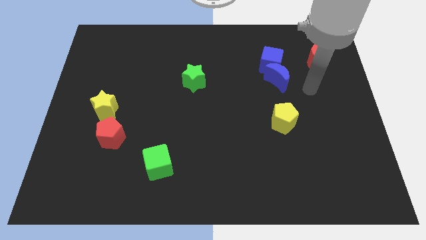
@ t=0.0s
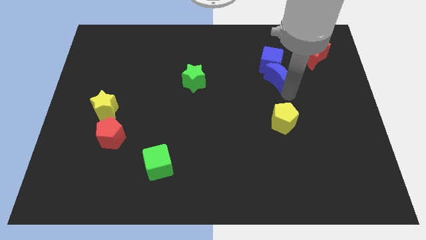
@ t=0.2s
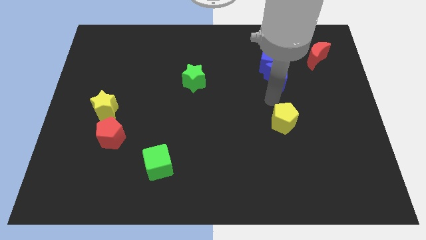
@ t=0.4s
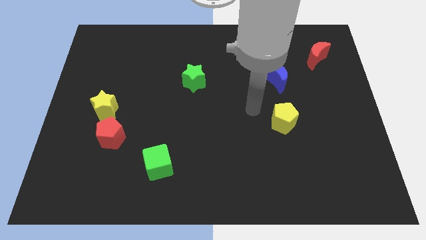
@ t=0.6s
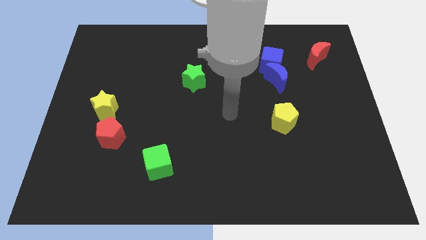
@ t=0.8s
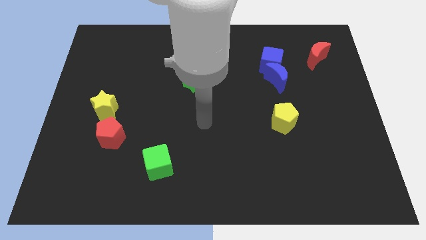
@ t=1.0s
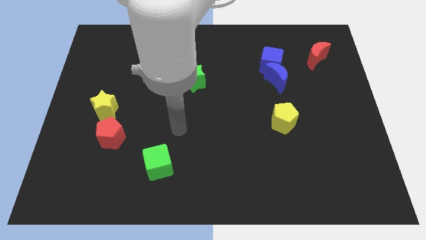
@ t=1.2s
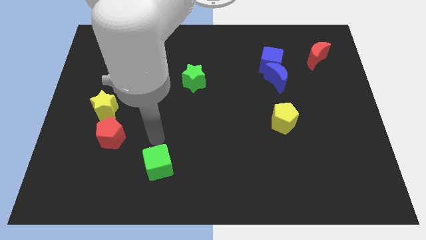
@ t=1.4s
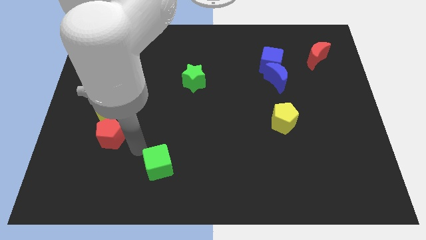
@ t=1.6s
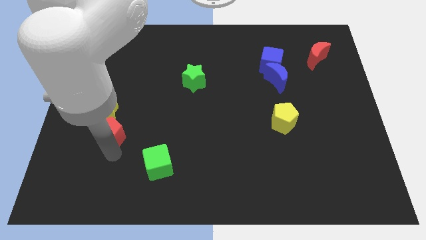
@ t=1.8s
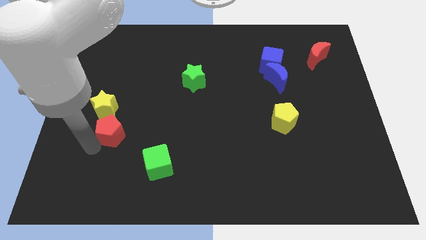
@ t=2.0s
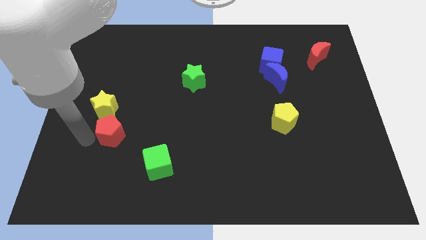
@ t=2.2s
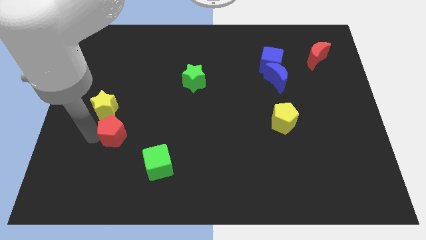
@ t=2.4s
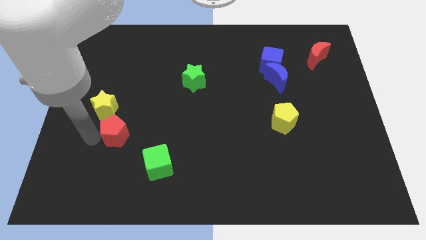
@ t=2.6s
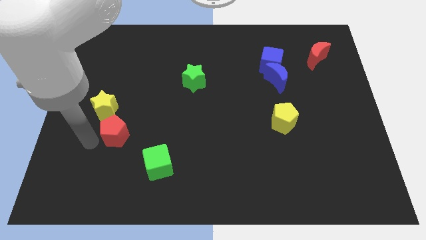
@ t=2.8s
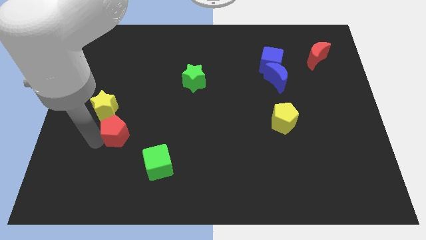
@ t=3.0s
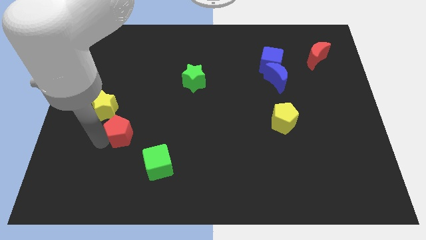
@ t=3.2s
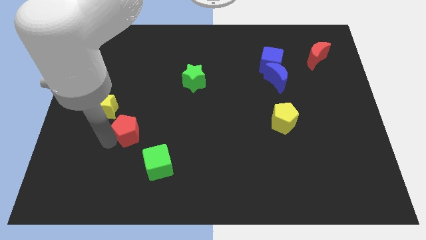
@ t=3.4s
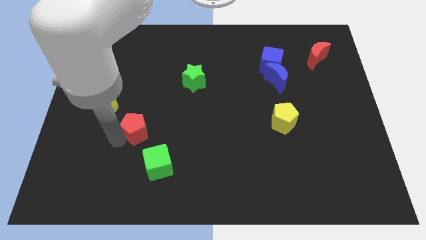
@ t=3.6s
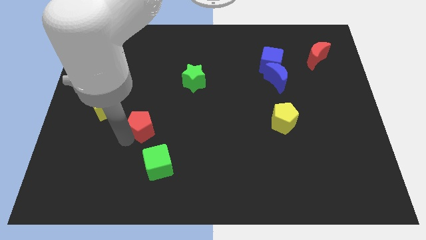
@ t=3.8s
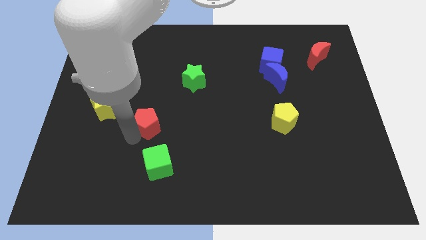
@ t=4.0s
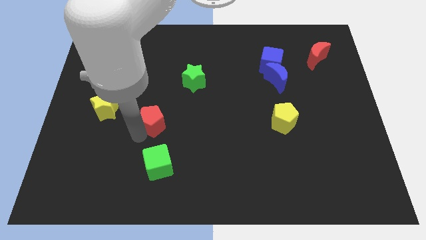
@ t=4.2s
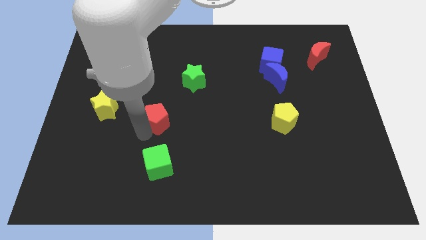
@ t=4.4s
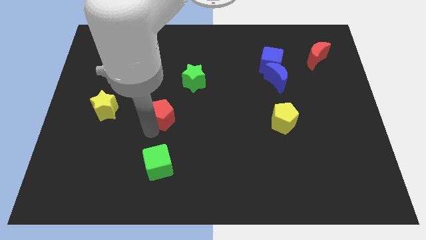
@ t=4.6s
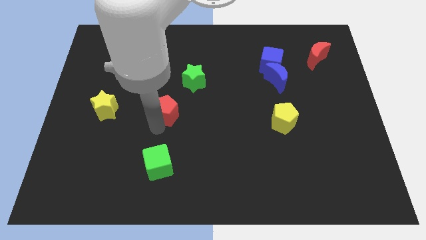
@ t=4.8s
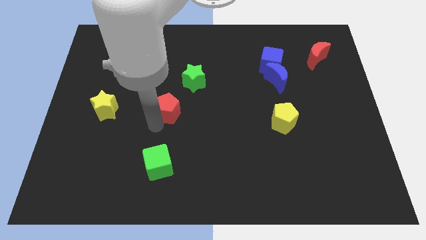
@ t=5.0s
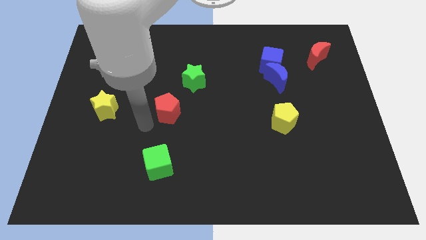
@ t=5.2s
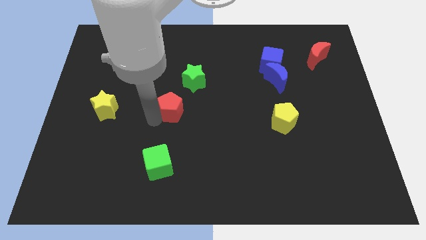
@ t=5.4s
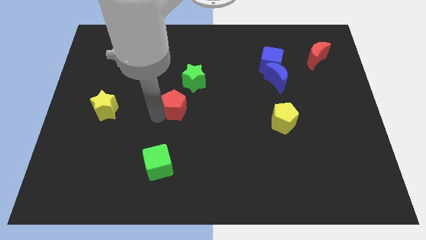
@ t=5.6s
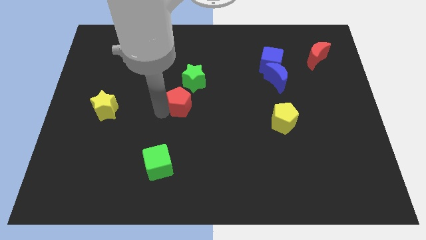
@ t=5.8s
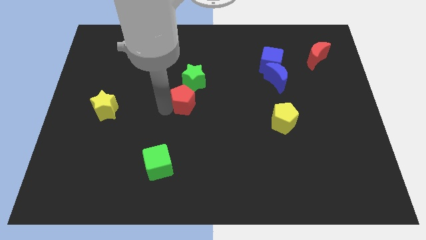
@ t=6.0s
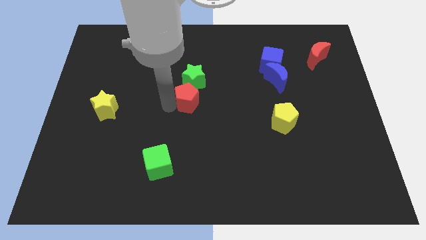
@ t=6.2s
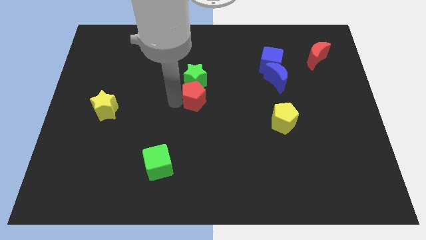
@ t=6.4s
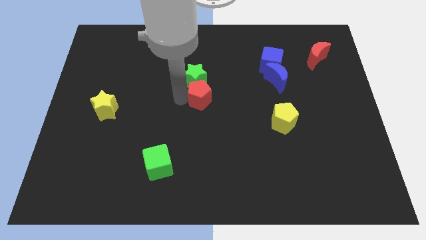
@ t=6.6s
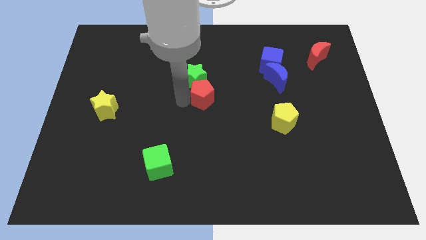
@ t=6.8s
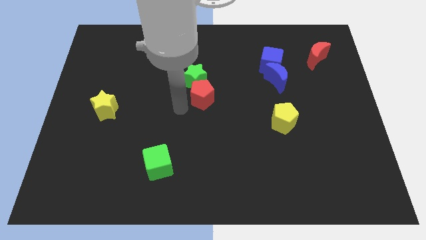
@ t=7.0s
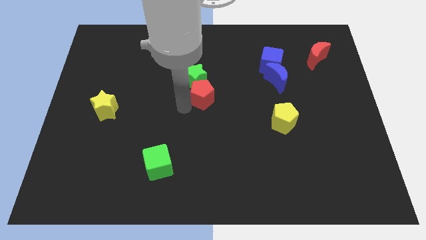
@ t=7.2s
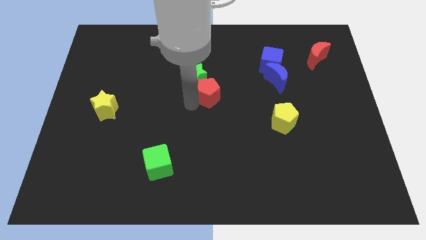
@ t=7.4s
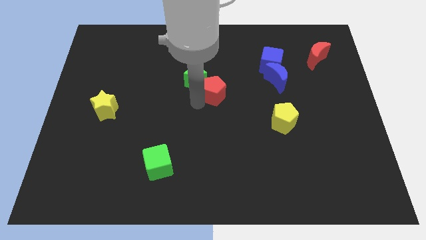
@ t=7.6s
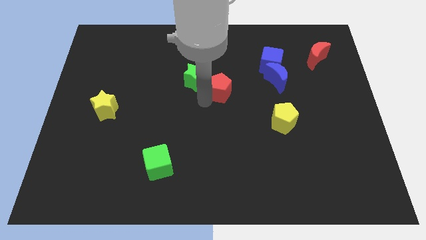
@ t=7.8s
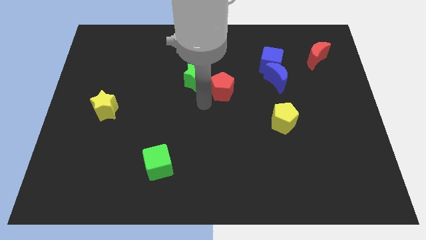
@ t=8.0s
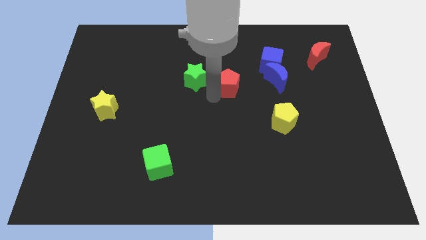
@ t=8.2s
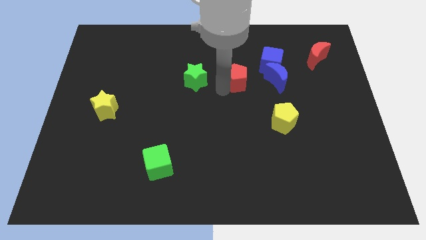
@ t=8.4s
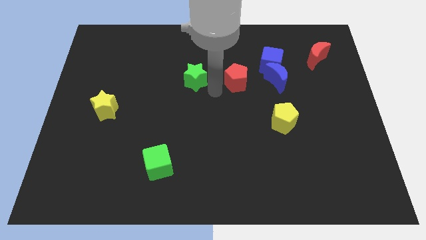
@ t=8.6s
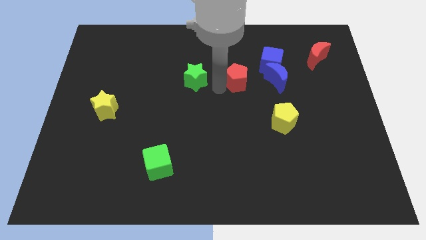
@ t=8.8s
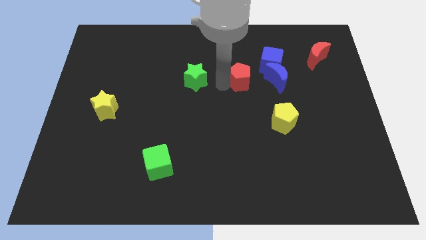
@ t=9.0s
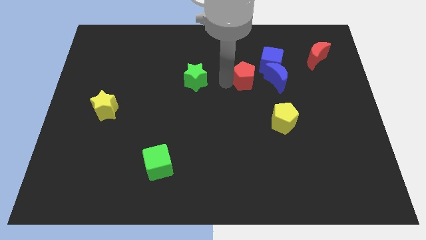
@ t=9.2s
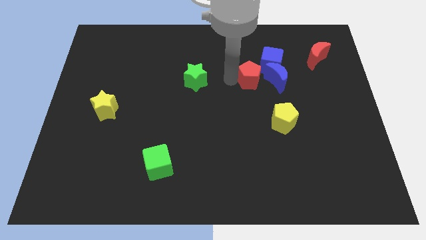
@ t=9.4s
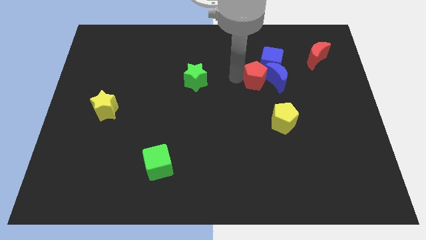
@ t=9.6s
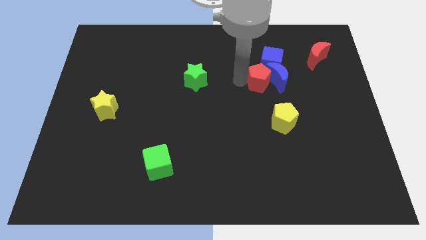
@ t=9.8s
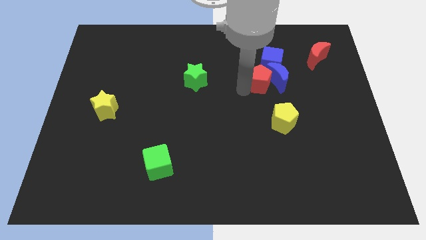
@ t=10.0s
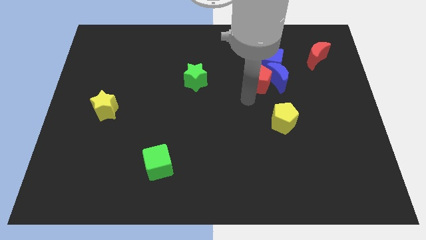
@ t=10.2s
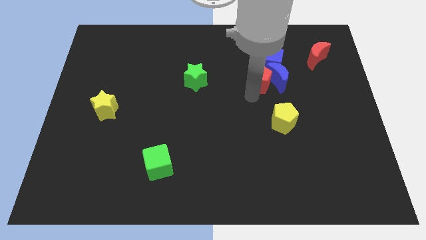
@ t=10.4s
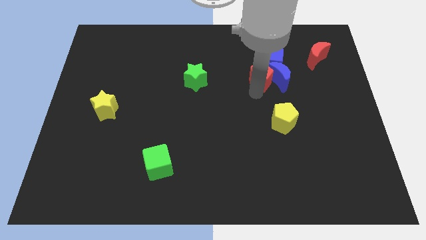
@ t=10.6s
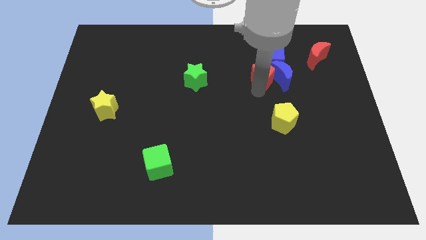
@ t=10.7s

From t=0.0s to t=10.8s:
push the red pentagon close to the blue cube

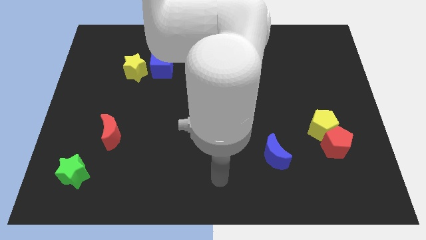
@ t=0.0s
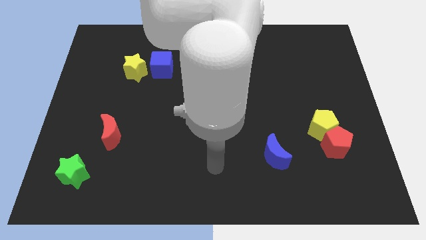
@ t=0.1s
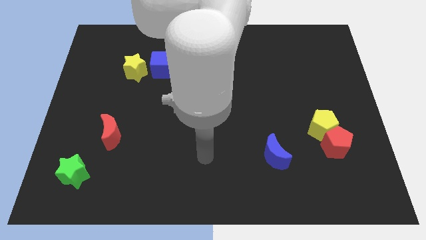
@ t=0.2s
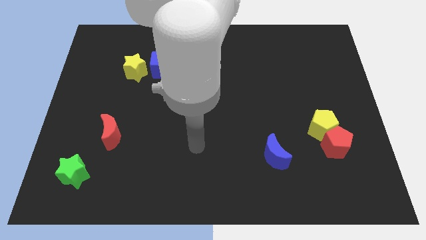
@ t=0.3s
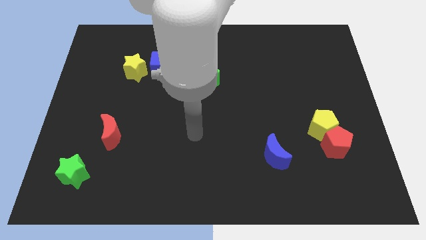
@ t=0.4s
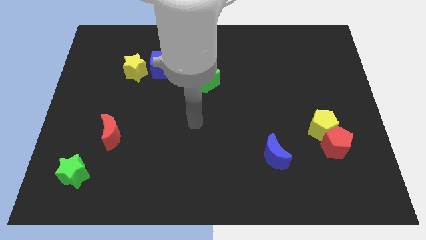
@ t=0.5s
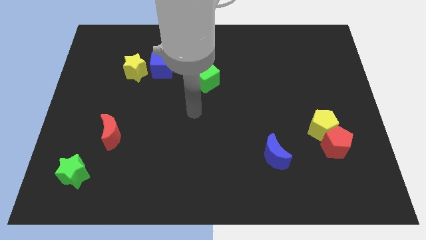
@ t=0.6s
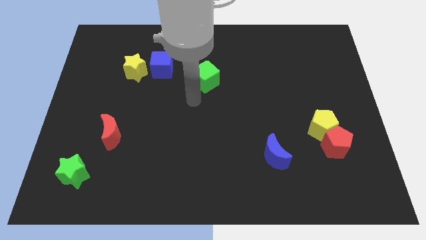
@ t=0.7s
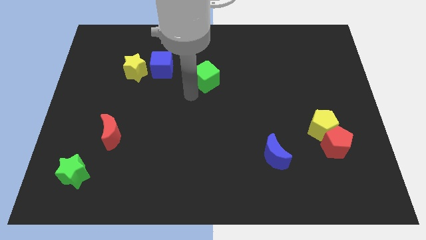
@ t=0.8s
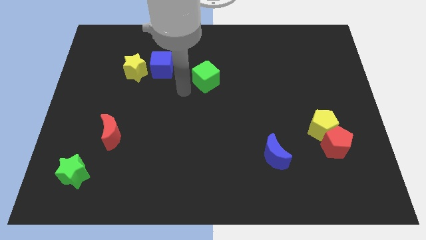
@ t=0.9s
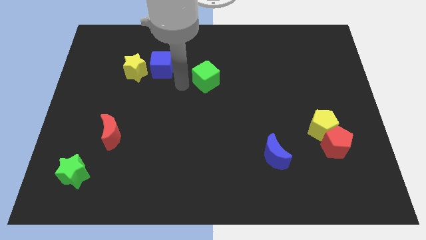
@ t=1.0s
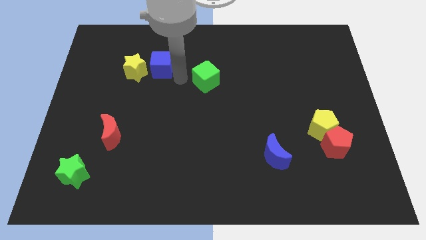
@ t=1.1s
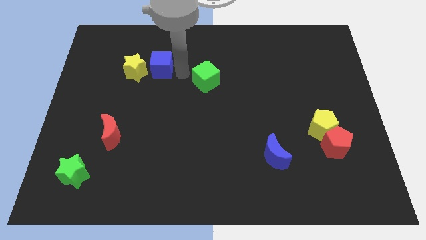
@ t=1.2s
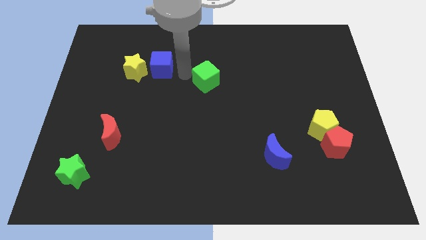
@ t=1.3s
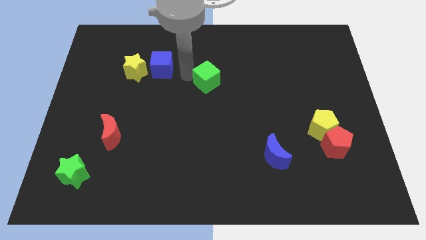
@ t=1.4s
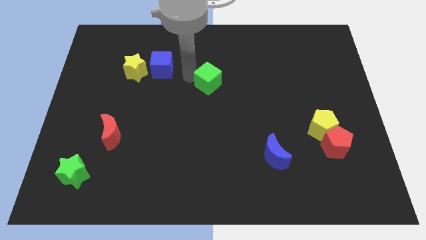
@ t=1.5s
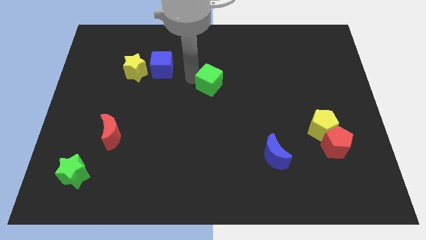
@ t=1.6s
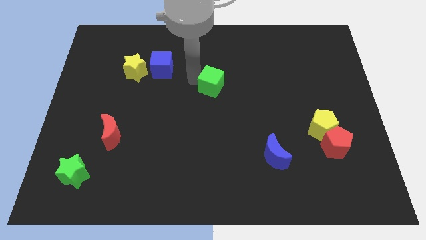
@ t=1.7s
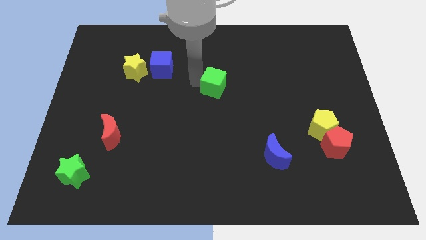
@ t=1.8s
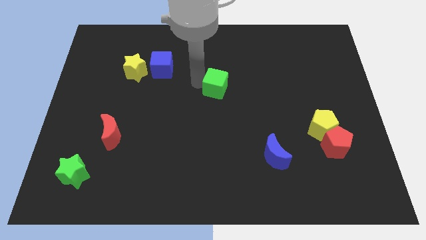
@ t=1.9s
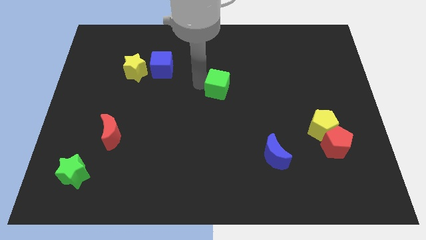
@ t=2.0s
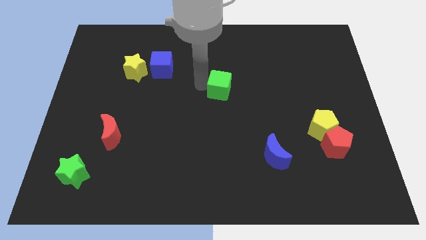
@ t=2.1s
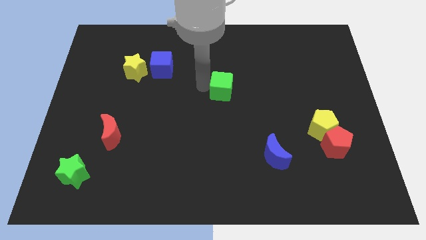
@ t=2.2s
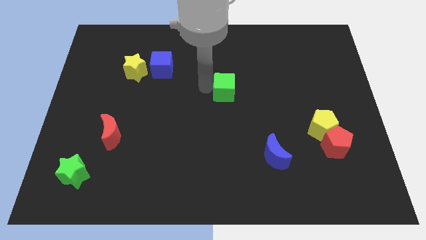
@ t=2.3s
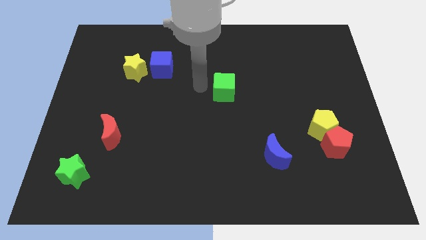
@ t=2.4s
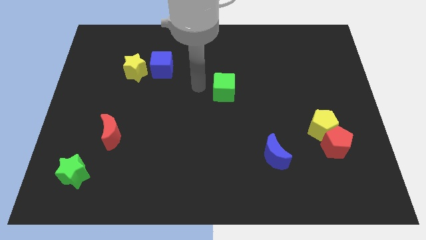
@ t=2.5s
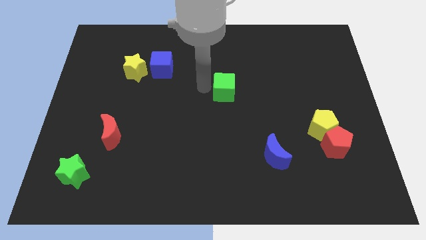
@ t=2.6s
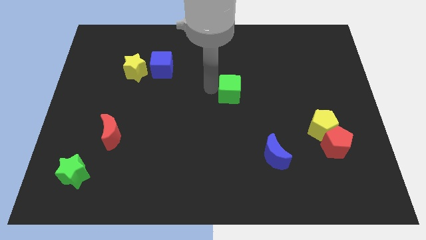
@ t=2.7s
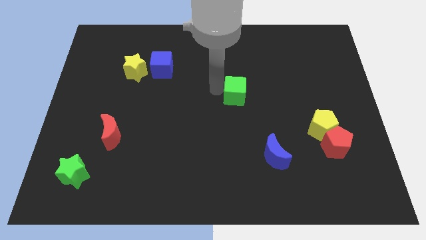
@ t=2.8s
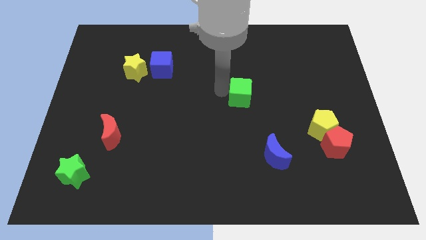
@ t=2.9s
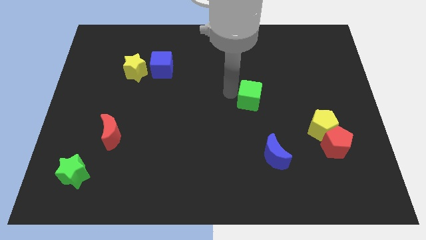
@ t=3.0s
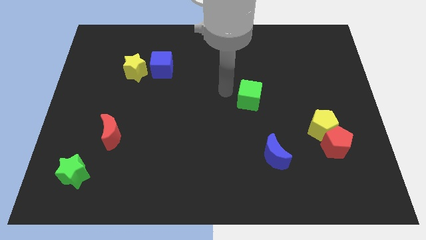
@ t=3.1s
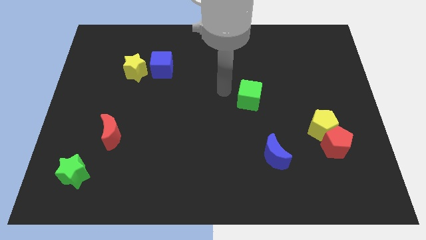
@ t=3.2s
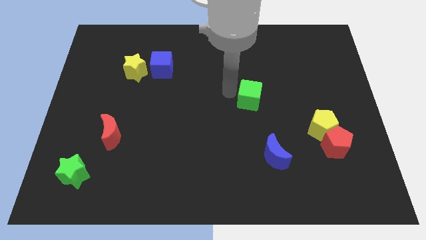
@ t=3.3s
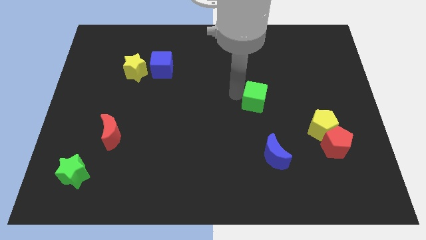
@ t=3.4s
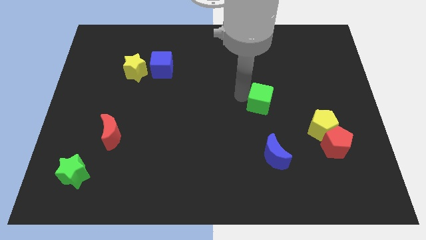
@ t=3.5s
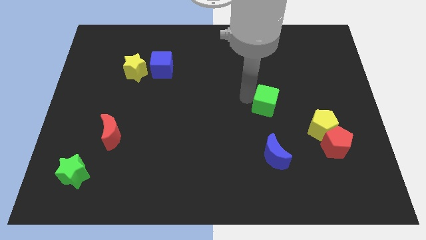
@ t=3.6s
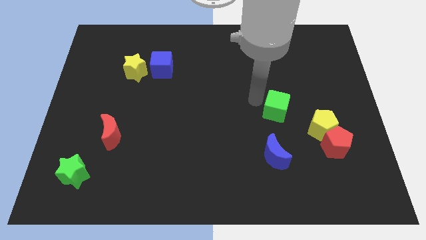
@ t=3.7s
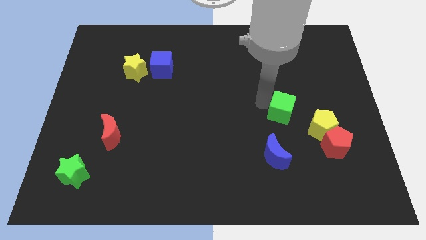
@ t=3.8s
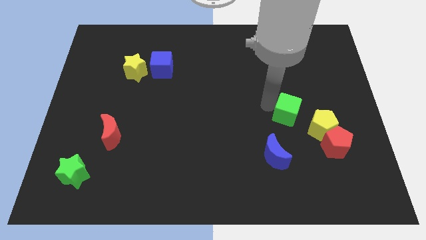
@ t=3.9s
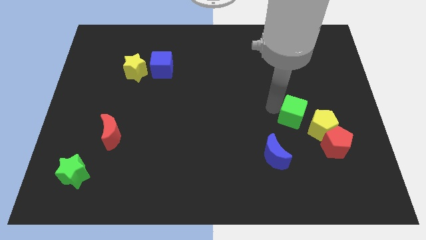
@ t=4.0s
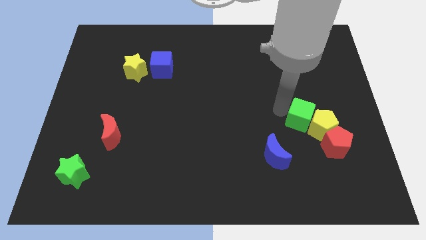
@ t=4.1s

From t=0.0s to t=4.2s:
put the green cube close to the yellow pentagon
